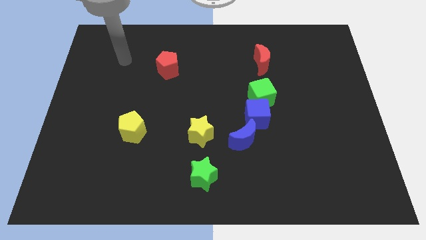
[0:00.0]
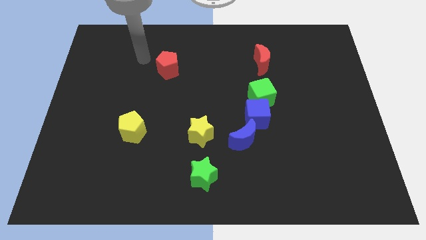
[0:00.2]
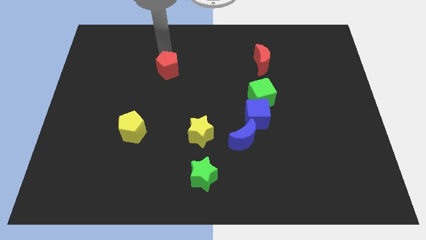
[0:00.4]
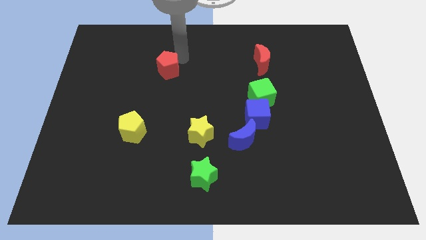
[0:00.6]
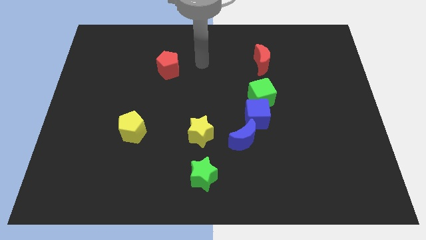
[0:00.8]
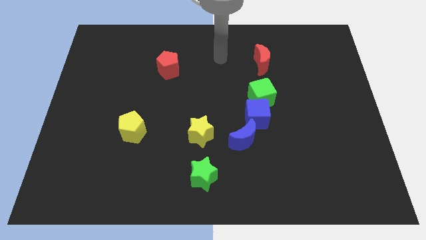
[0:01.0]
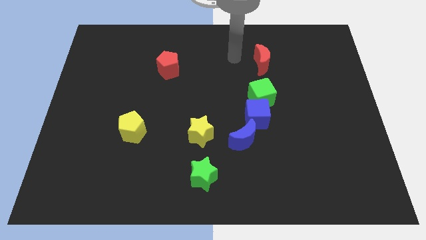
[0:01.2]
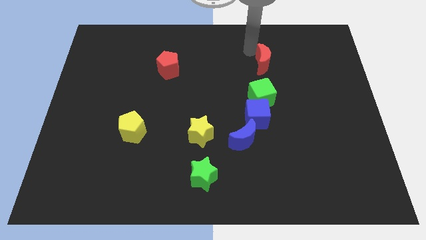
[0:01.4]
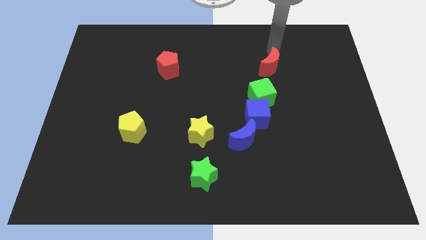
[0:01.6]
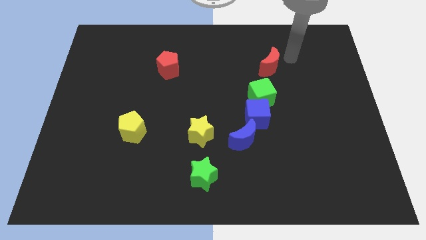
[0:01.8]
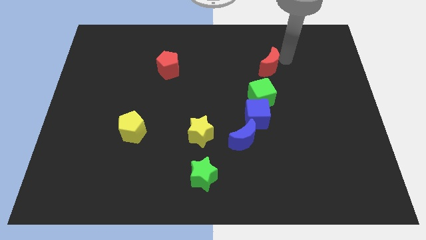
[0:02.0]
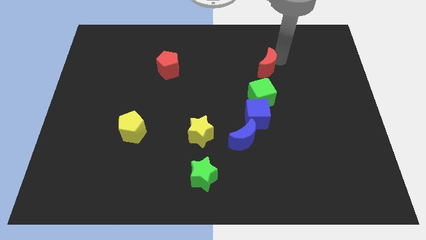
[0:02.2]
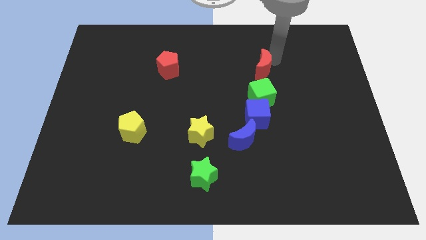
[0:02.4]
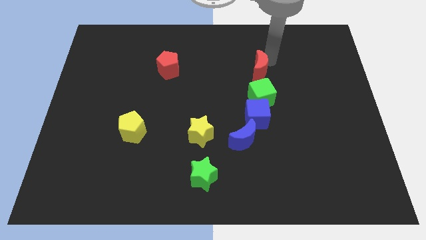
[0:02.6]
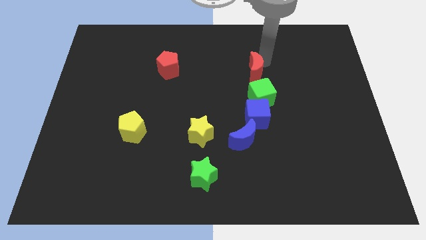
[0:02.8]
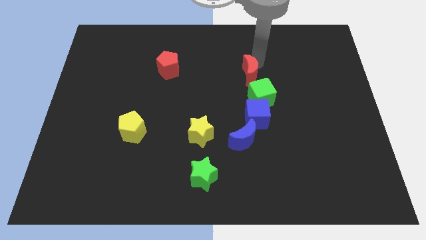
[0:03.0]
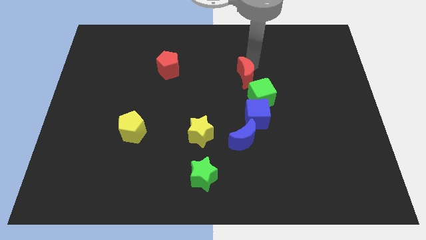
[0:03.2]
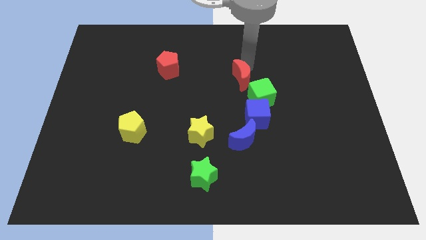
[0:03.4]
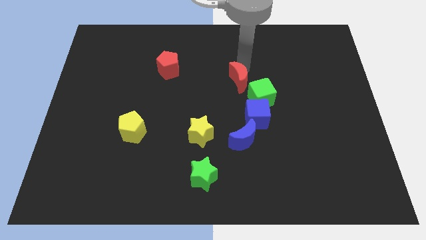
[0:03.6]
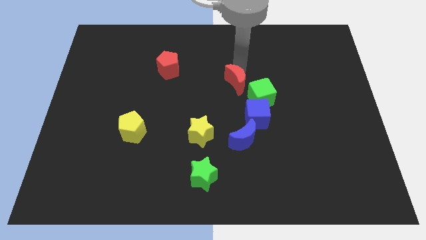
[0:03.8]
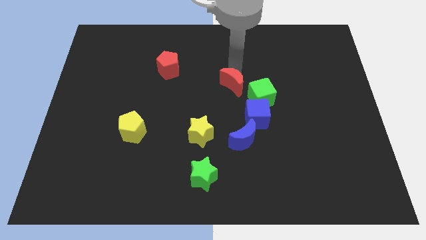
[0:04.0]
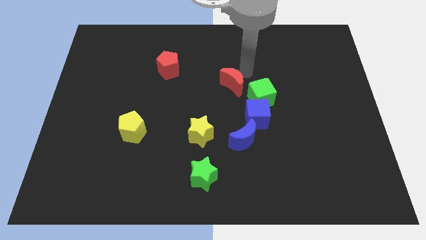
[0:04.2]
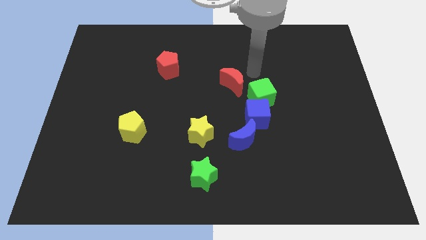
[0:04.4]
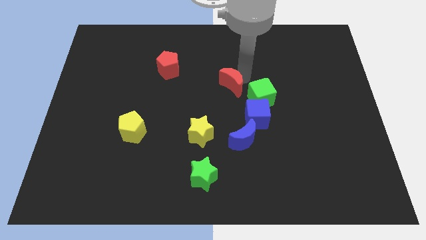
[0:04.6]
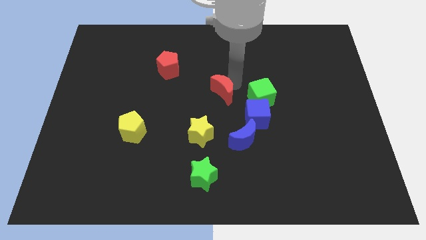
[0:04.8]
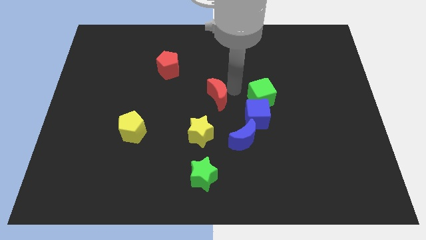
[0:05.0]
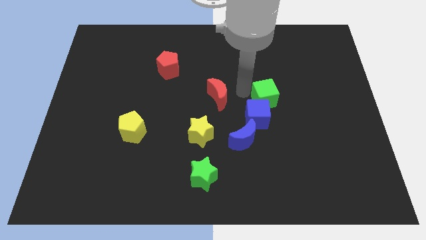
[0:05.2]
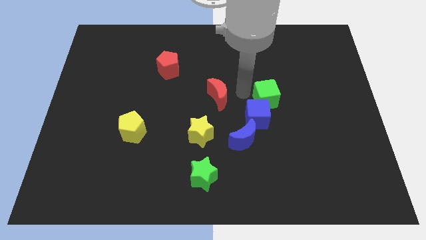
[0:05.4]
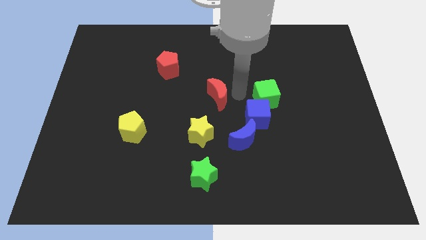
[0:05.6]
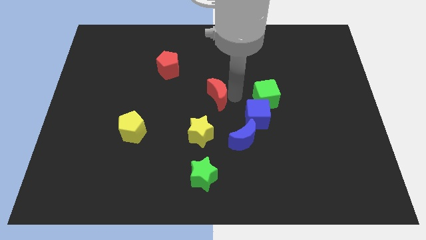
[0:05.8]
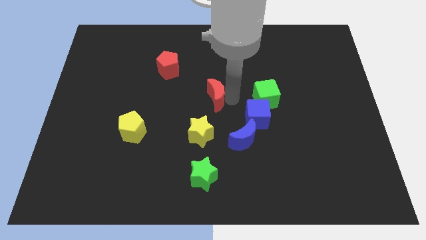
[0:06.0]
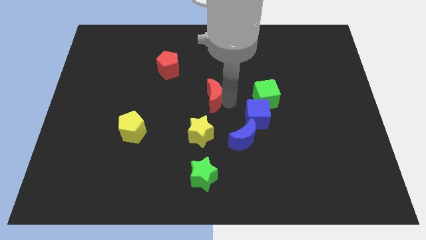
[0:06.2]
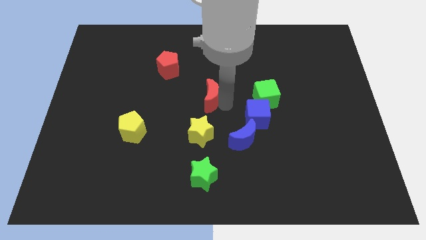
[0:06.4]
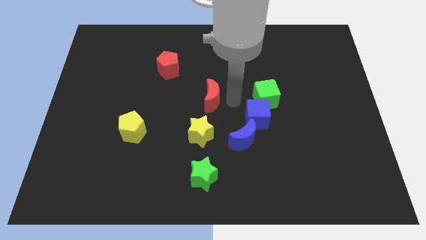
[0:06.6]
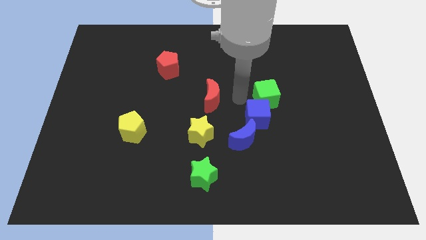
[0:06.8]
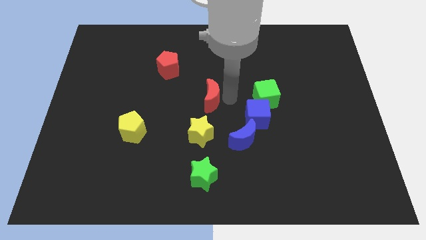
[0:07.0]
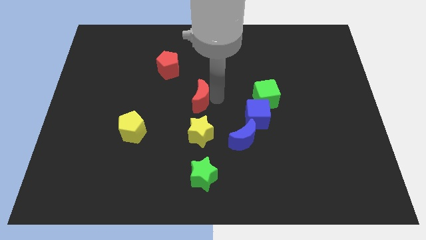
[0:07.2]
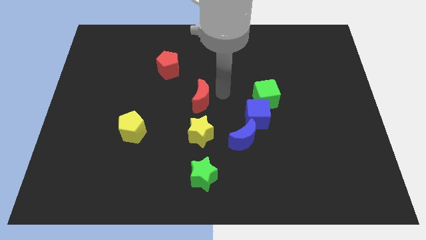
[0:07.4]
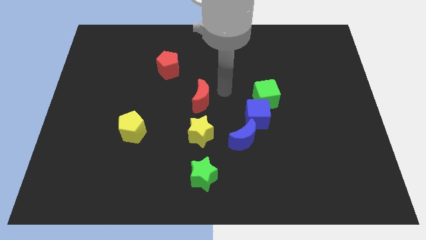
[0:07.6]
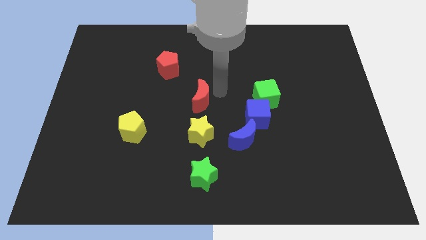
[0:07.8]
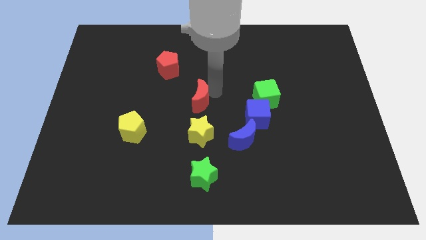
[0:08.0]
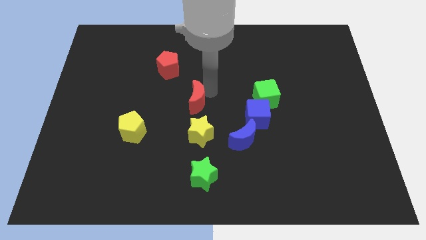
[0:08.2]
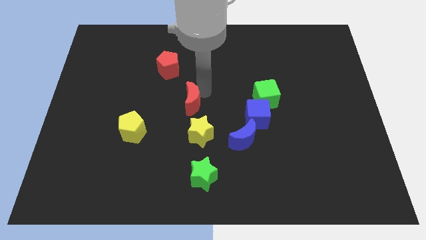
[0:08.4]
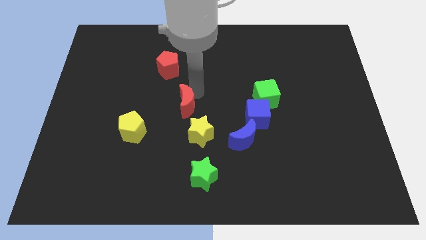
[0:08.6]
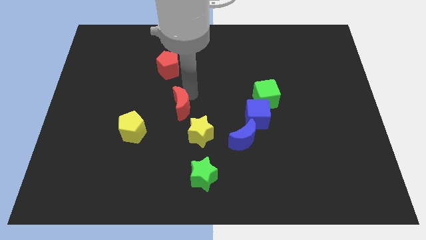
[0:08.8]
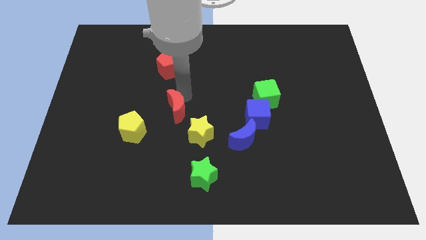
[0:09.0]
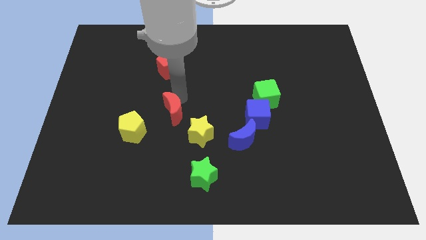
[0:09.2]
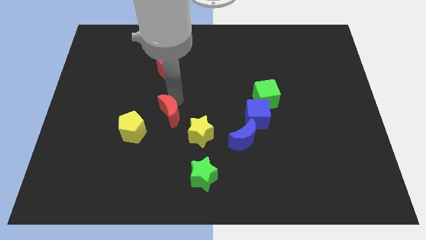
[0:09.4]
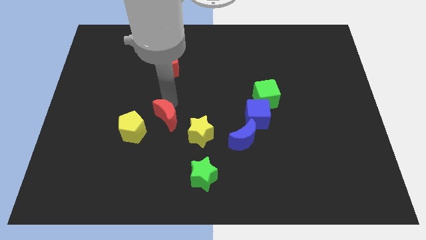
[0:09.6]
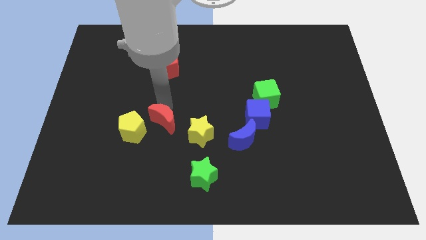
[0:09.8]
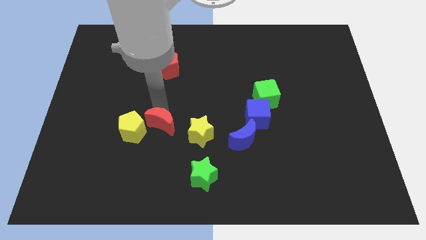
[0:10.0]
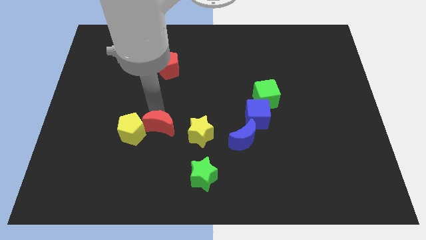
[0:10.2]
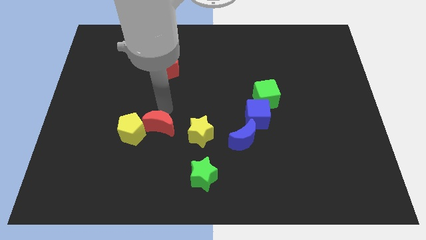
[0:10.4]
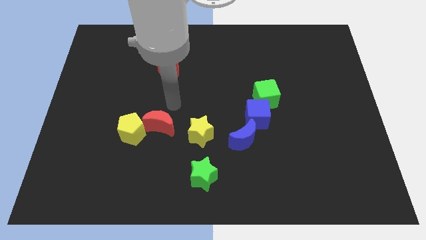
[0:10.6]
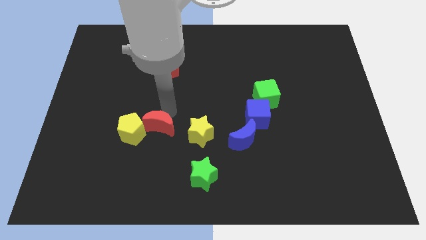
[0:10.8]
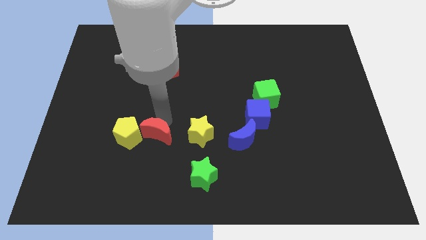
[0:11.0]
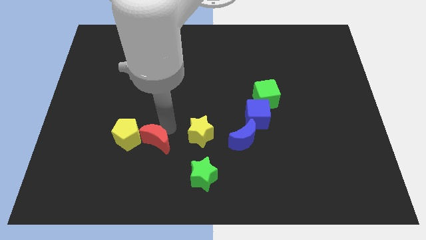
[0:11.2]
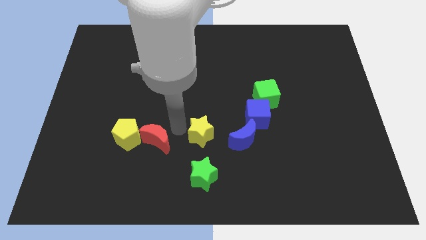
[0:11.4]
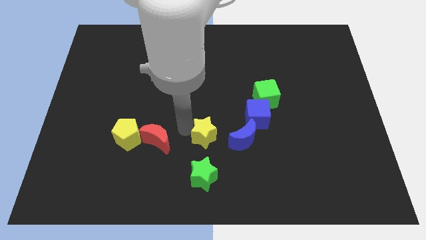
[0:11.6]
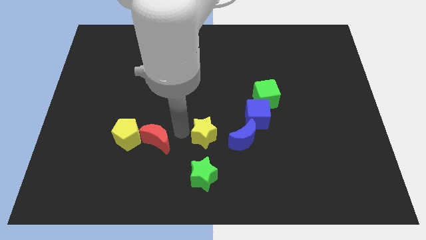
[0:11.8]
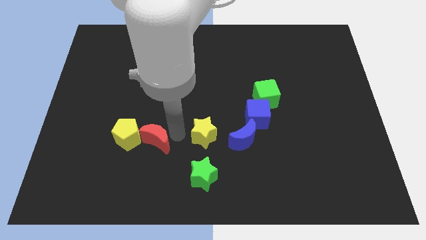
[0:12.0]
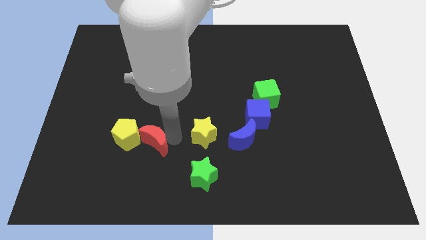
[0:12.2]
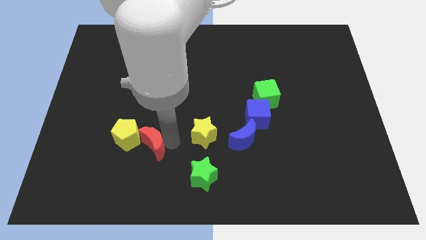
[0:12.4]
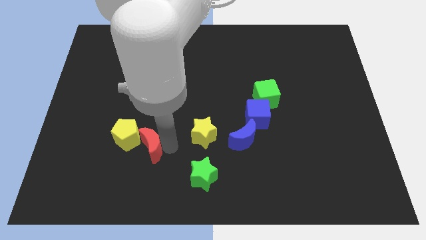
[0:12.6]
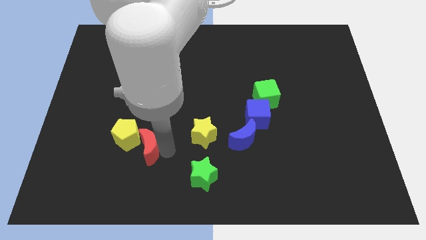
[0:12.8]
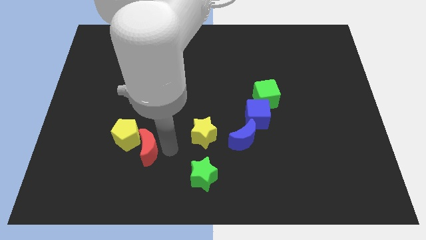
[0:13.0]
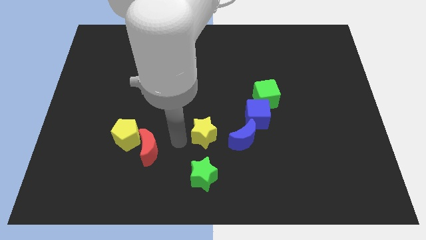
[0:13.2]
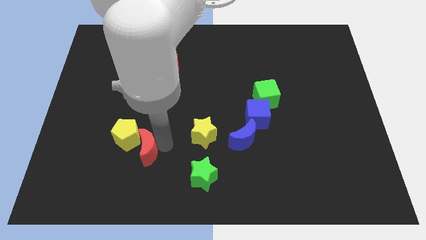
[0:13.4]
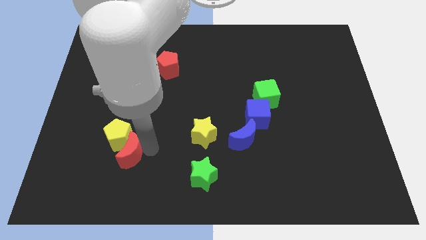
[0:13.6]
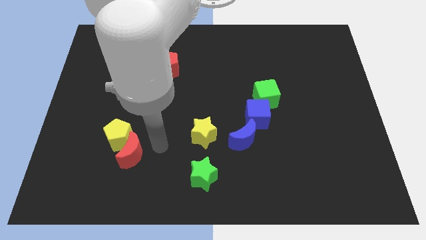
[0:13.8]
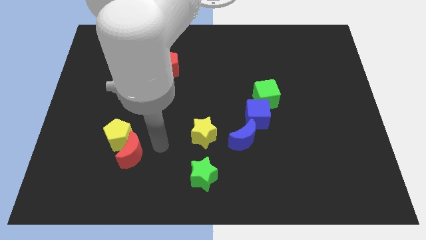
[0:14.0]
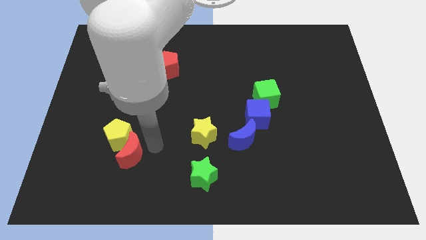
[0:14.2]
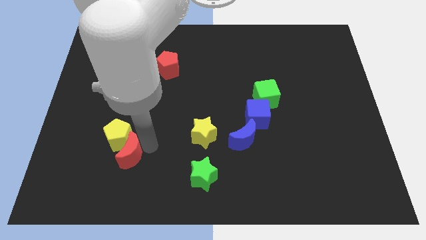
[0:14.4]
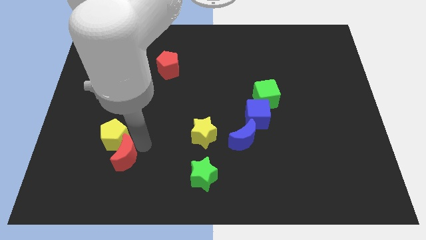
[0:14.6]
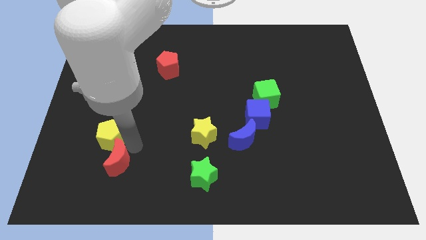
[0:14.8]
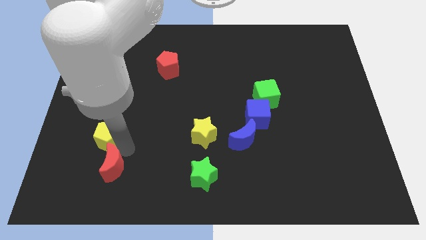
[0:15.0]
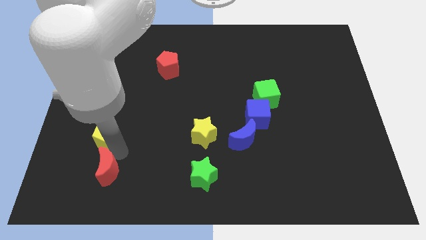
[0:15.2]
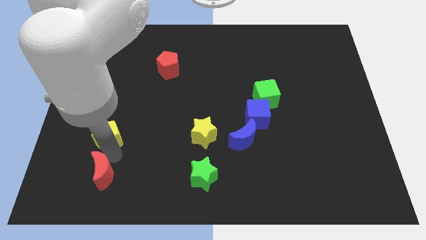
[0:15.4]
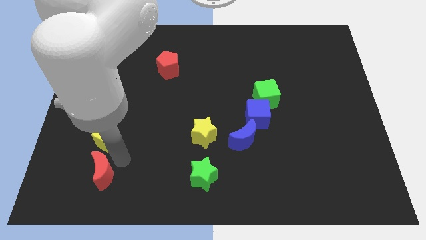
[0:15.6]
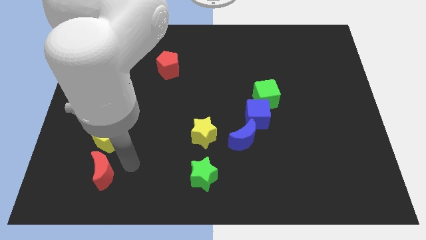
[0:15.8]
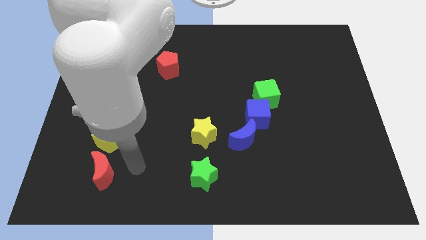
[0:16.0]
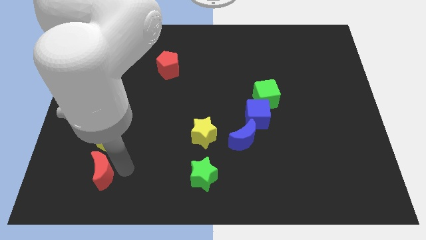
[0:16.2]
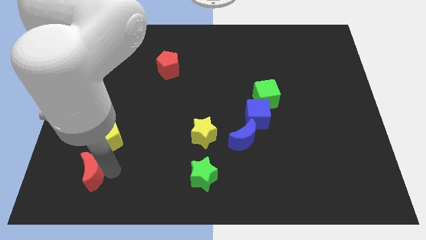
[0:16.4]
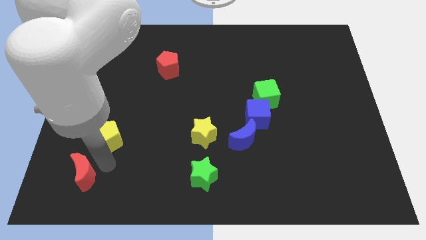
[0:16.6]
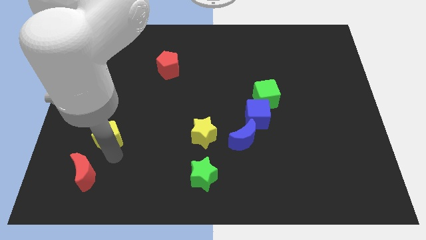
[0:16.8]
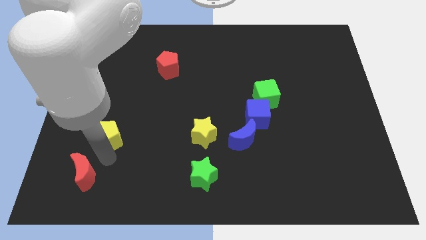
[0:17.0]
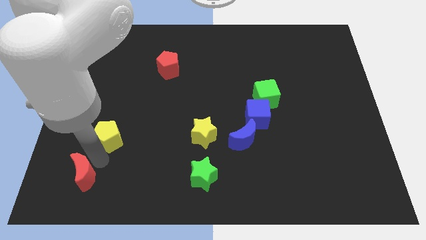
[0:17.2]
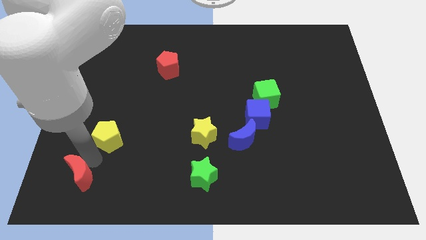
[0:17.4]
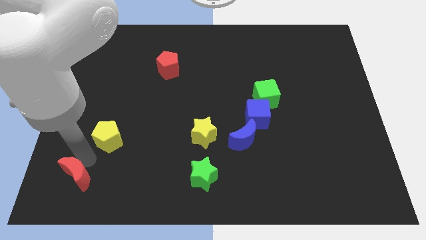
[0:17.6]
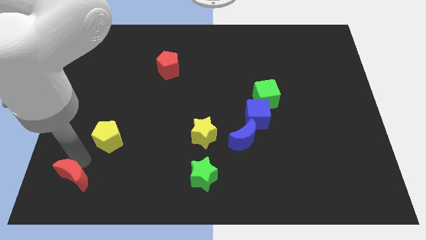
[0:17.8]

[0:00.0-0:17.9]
move the red moon to the bottom left of the board
